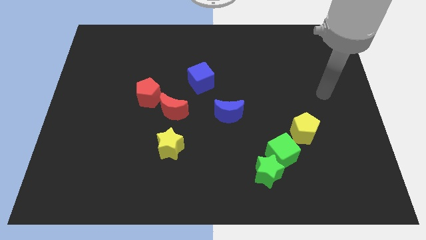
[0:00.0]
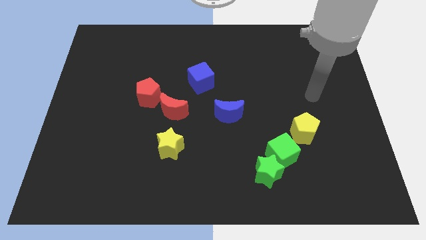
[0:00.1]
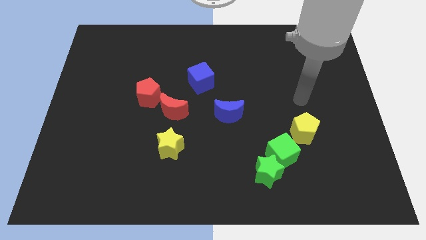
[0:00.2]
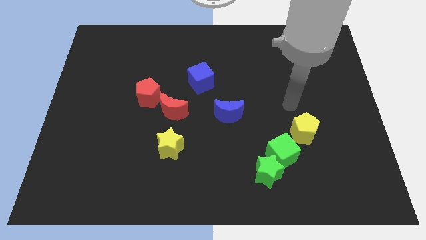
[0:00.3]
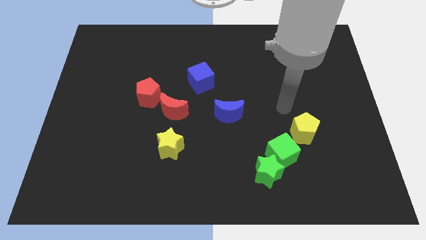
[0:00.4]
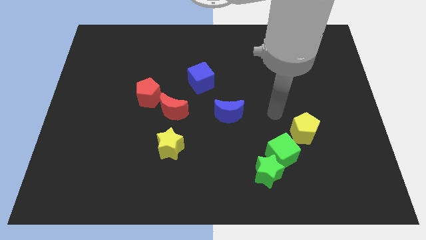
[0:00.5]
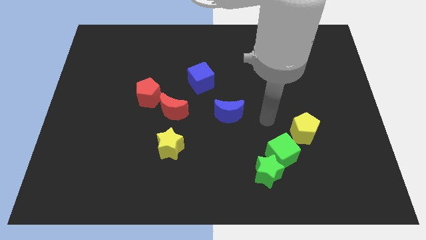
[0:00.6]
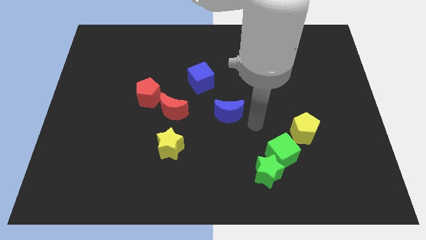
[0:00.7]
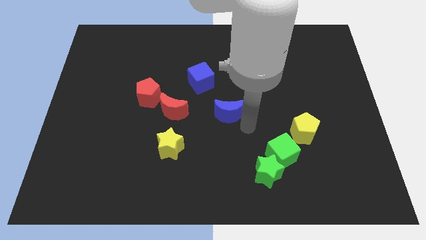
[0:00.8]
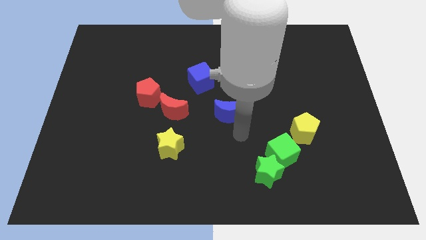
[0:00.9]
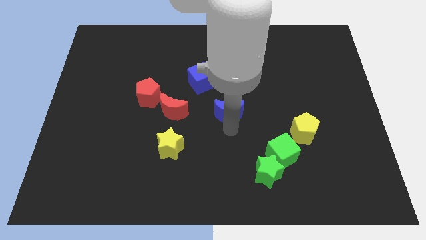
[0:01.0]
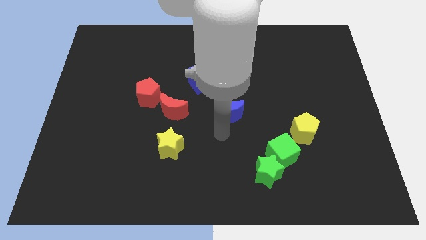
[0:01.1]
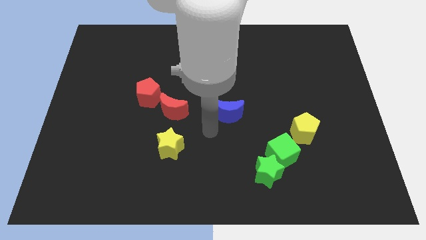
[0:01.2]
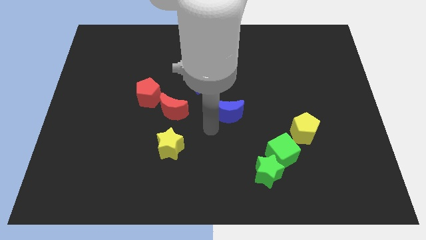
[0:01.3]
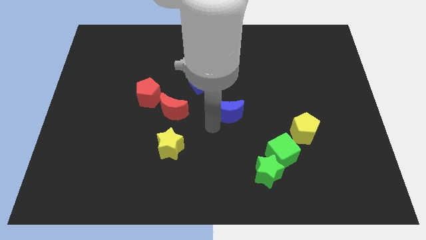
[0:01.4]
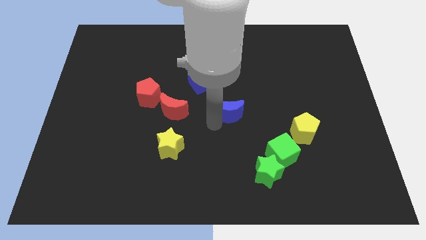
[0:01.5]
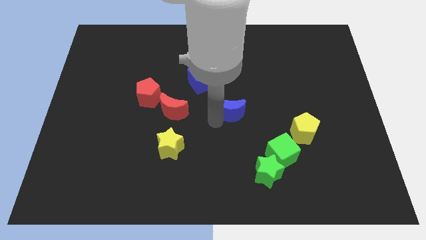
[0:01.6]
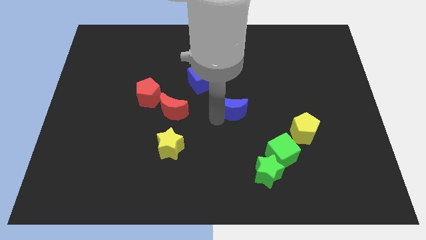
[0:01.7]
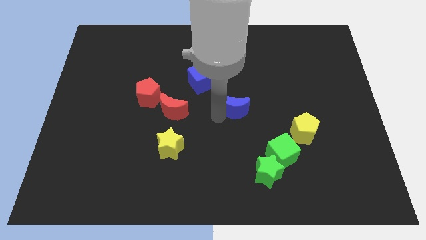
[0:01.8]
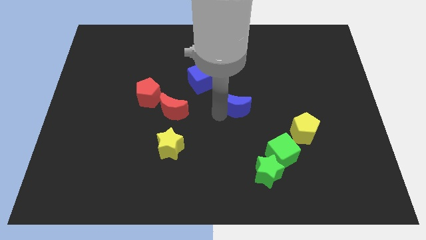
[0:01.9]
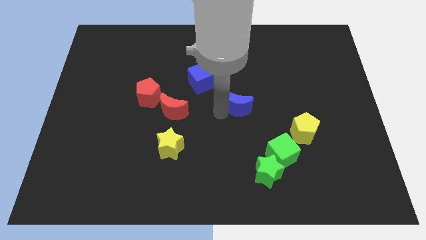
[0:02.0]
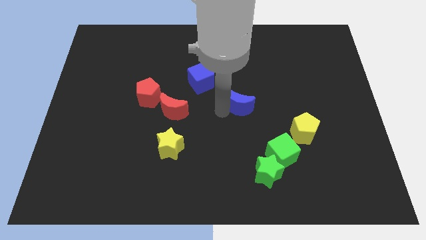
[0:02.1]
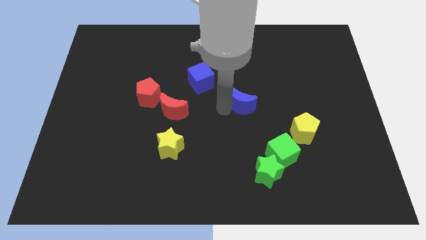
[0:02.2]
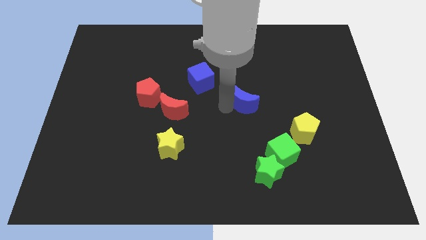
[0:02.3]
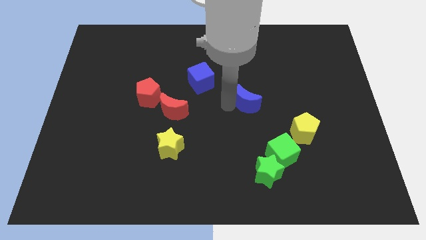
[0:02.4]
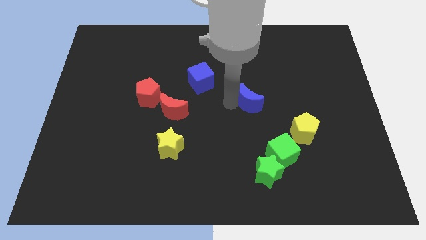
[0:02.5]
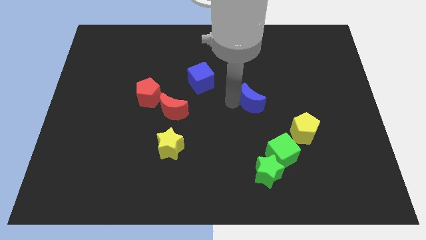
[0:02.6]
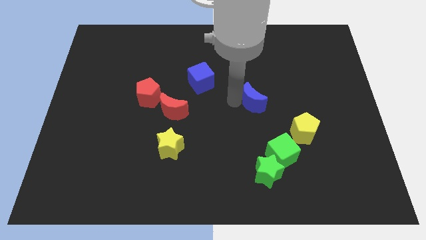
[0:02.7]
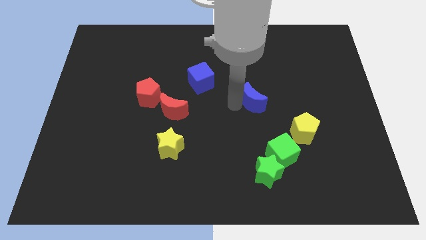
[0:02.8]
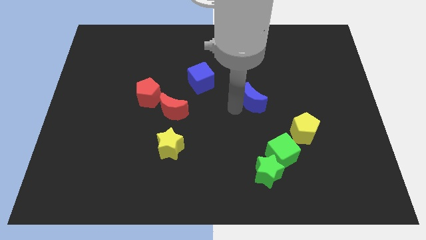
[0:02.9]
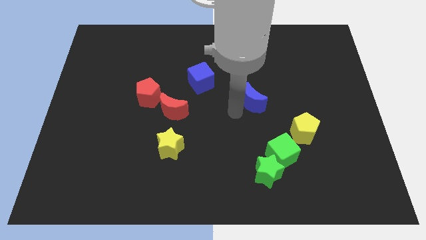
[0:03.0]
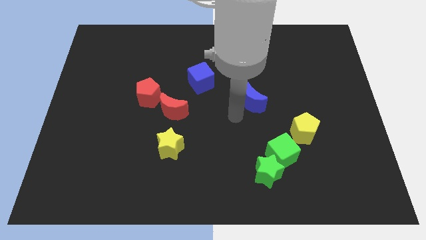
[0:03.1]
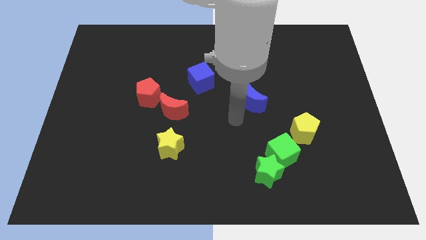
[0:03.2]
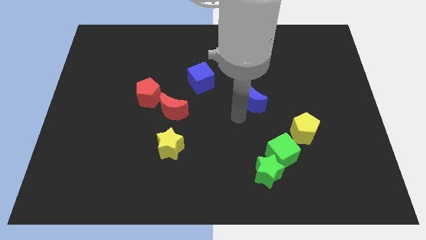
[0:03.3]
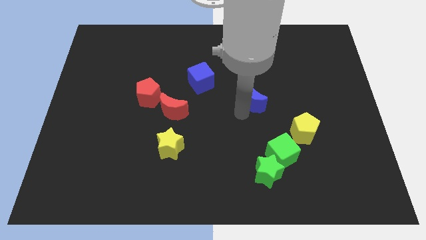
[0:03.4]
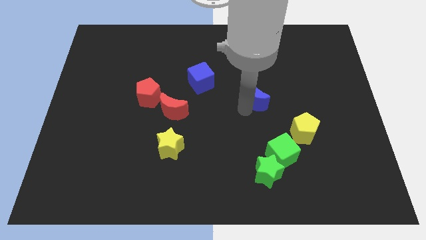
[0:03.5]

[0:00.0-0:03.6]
slide the blue moon diagonally up and to the right a little bit

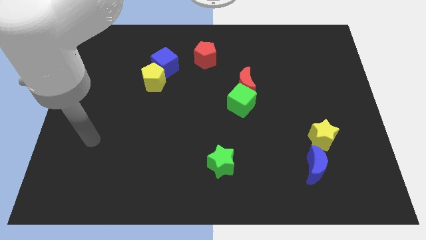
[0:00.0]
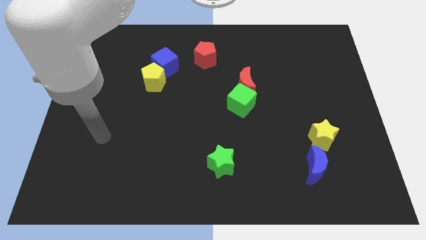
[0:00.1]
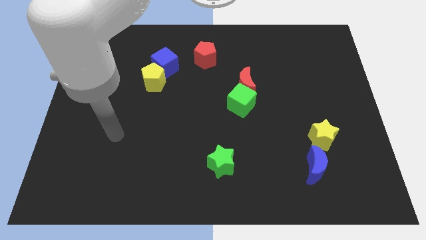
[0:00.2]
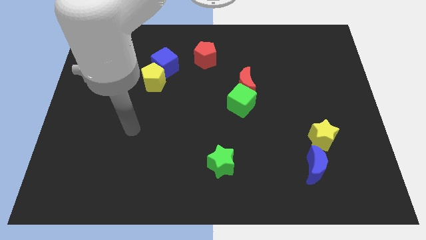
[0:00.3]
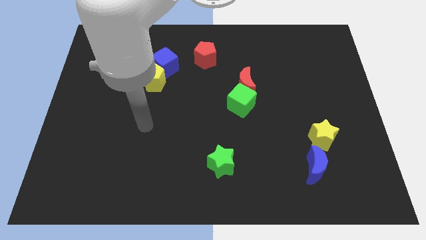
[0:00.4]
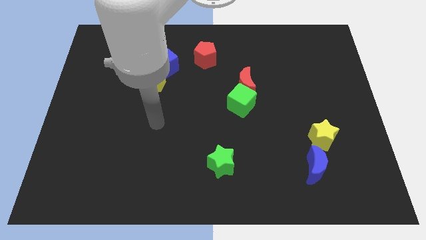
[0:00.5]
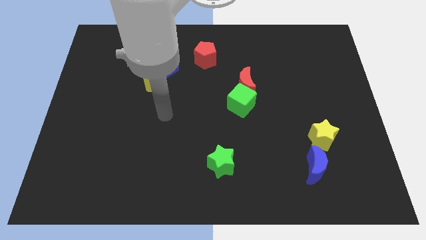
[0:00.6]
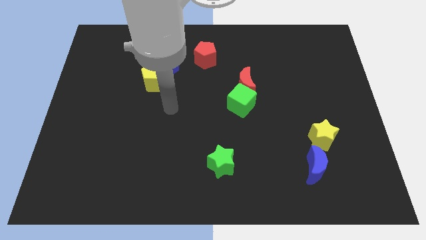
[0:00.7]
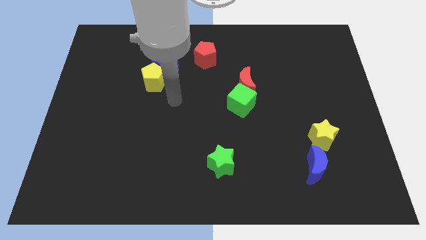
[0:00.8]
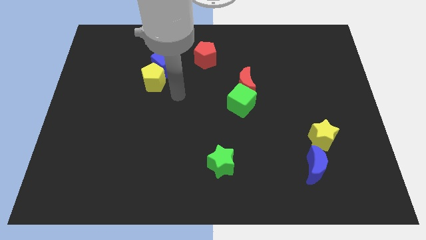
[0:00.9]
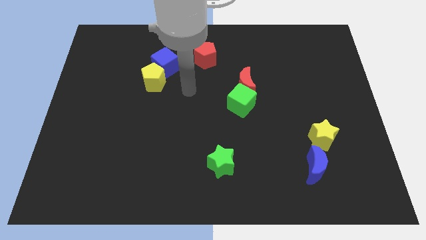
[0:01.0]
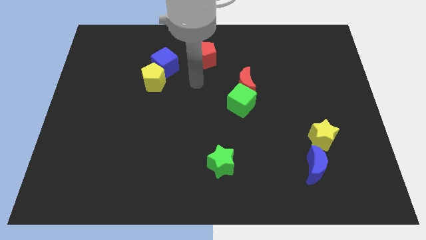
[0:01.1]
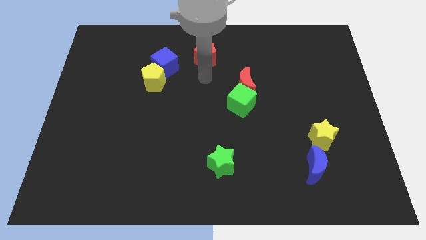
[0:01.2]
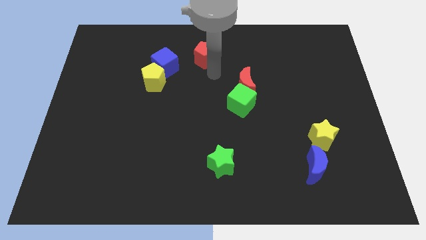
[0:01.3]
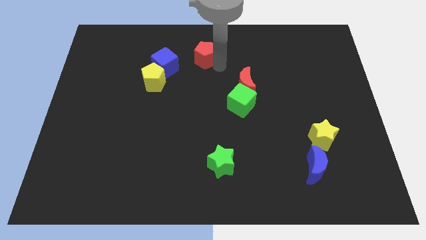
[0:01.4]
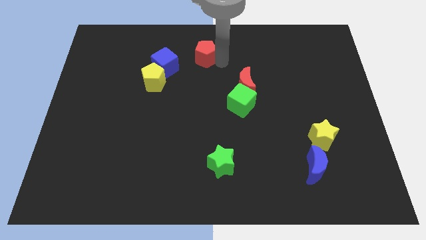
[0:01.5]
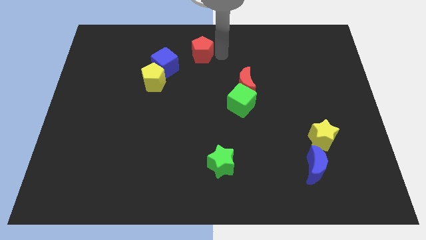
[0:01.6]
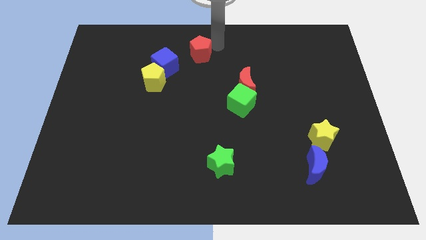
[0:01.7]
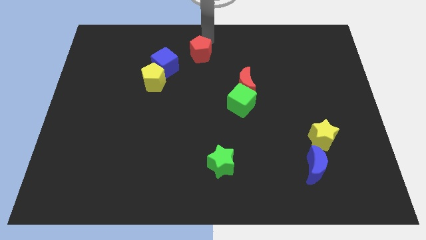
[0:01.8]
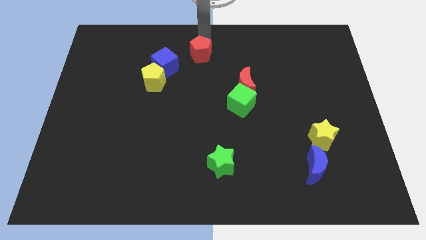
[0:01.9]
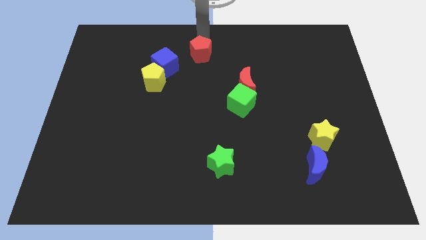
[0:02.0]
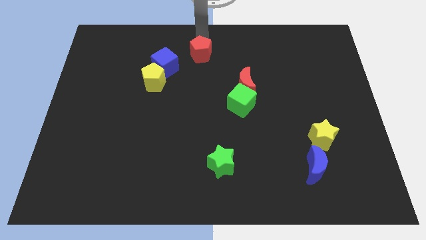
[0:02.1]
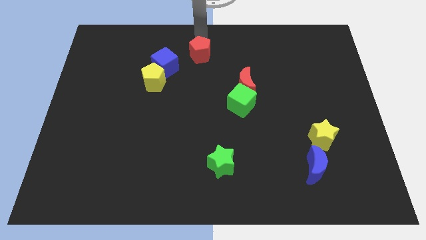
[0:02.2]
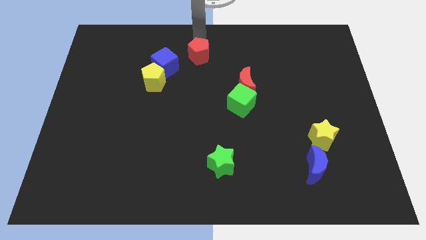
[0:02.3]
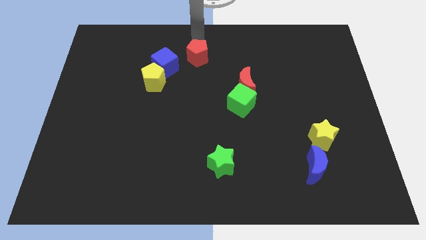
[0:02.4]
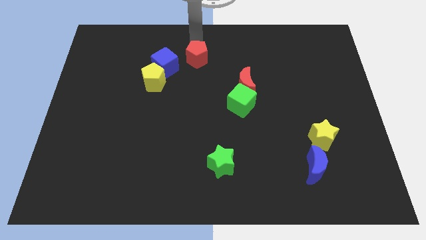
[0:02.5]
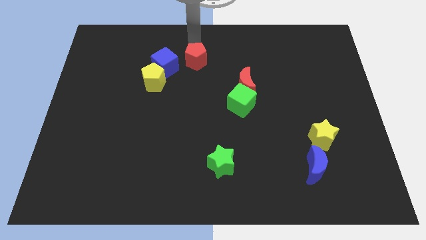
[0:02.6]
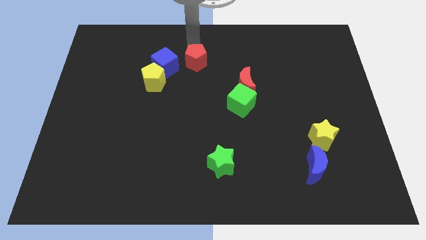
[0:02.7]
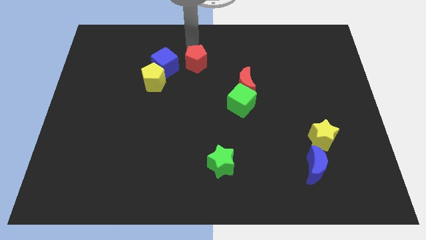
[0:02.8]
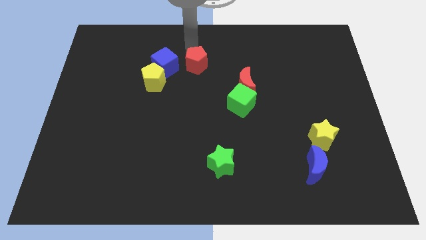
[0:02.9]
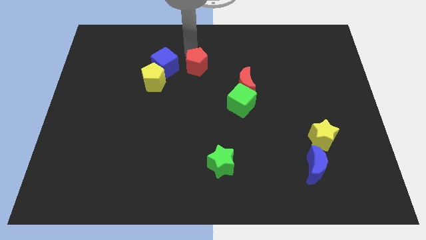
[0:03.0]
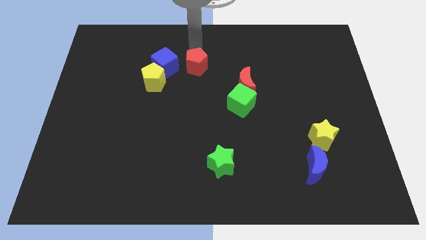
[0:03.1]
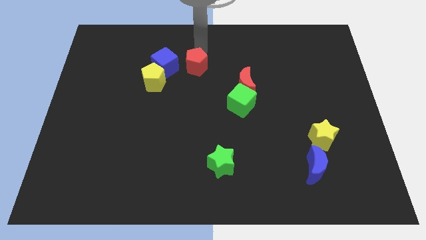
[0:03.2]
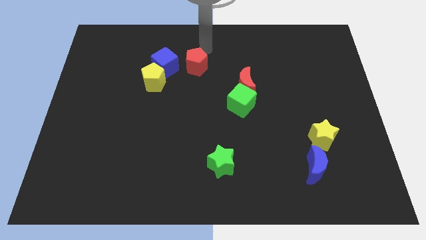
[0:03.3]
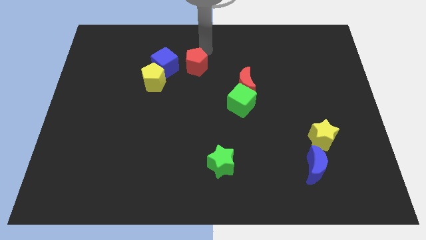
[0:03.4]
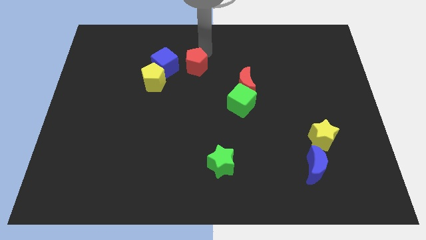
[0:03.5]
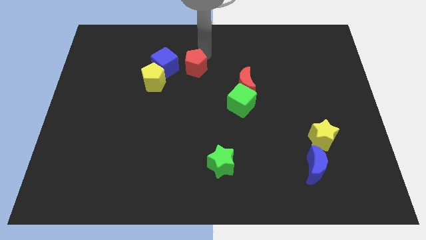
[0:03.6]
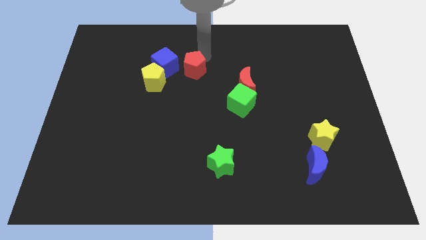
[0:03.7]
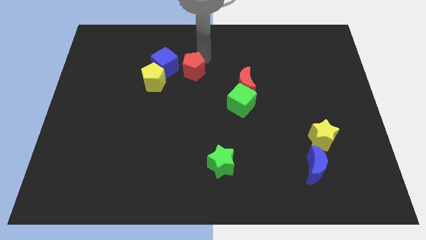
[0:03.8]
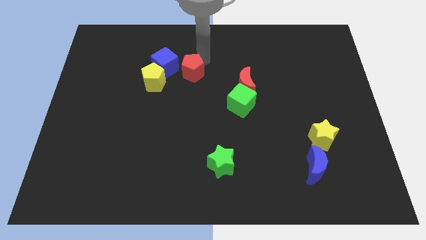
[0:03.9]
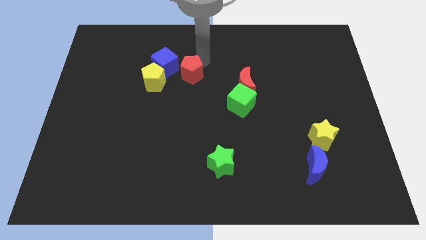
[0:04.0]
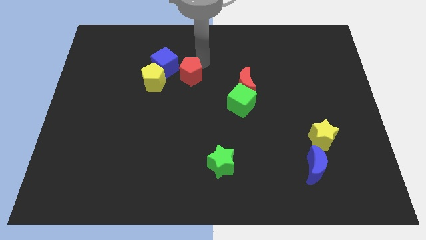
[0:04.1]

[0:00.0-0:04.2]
push the red pentagon a little bit down and left diagonally

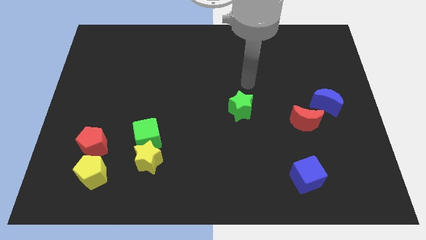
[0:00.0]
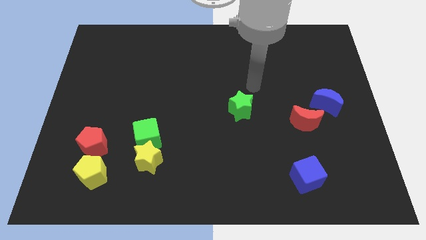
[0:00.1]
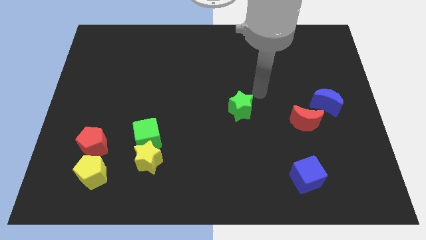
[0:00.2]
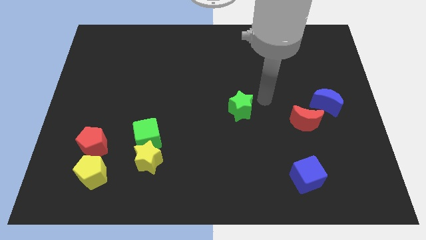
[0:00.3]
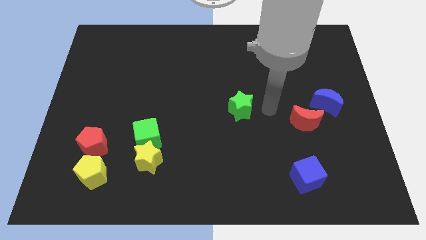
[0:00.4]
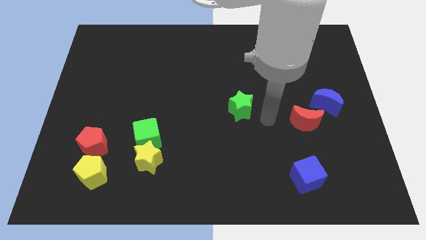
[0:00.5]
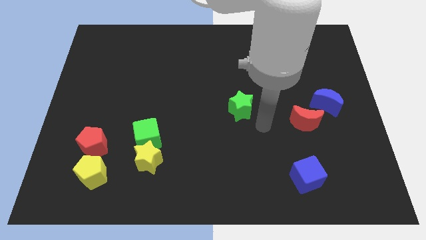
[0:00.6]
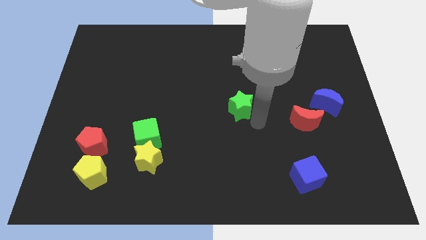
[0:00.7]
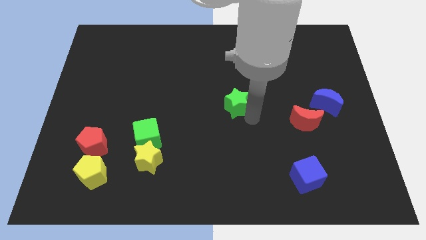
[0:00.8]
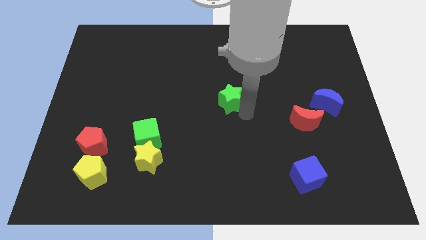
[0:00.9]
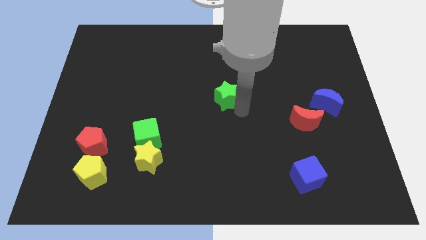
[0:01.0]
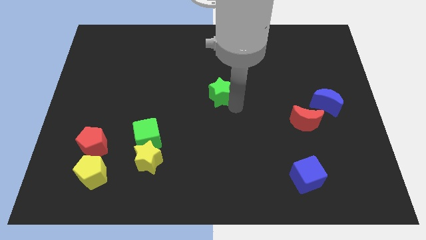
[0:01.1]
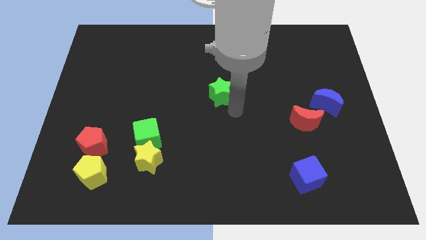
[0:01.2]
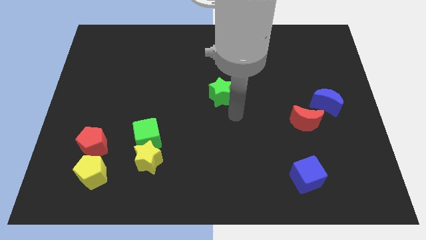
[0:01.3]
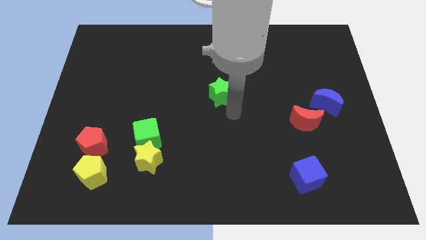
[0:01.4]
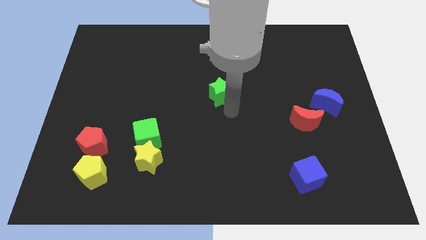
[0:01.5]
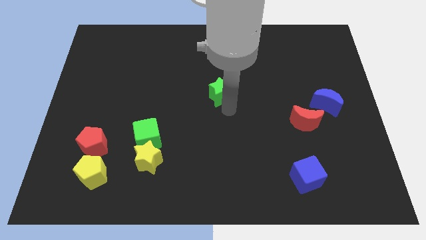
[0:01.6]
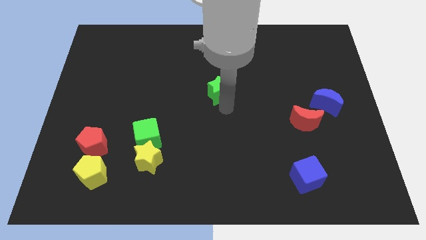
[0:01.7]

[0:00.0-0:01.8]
push the green star a little bit upwards and then left
